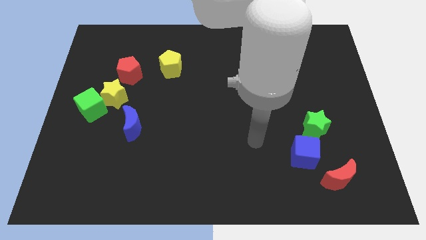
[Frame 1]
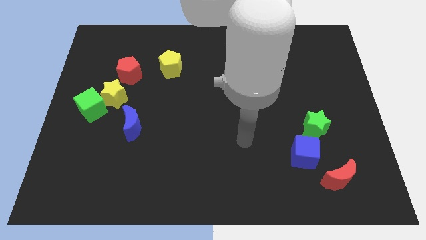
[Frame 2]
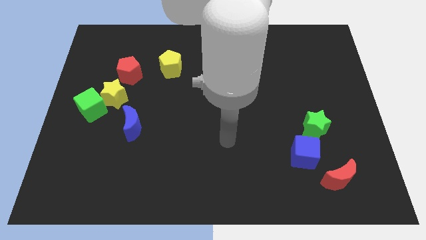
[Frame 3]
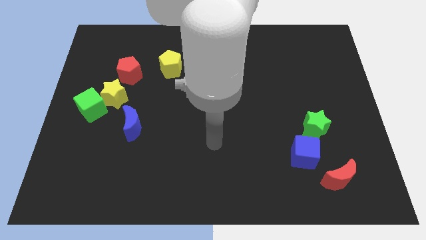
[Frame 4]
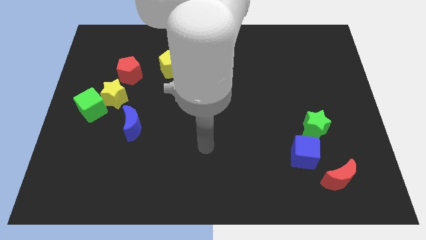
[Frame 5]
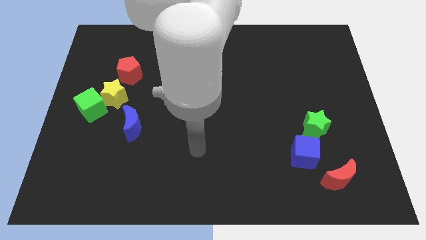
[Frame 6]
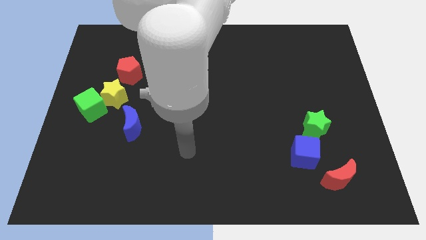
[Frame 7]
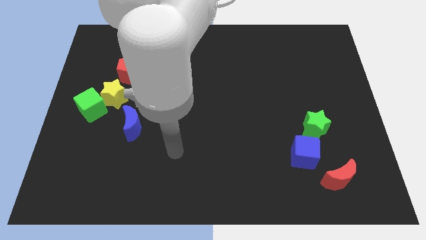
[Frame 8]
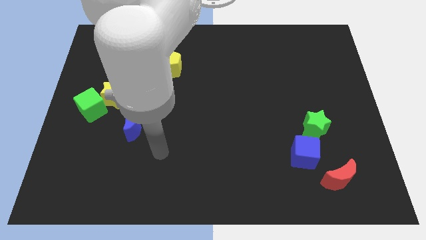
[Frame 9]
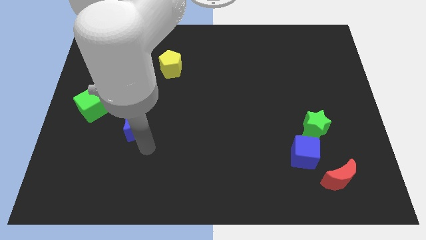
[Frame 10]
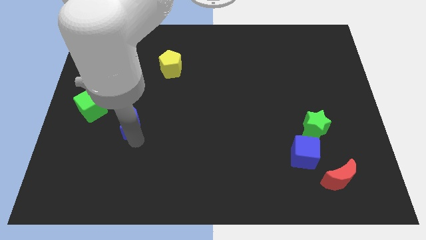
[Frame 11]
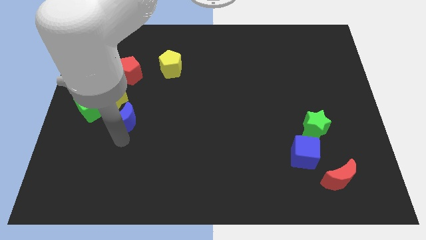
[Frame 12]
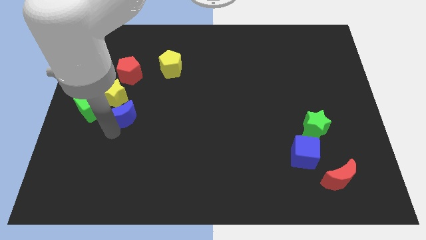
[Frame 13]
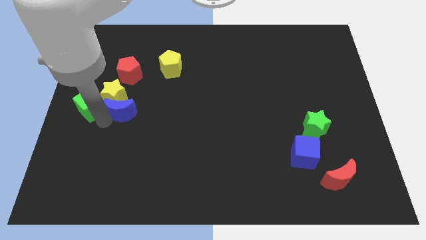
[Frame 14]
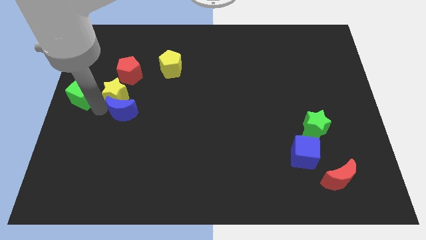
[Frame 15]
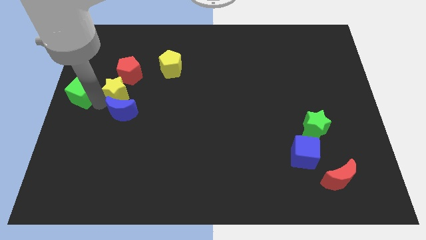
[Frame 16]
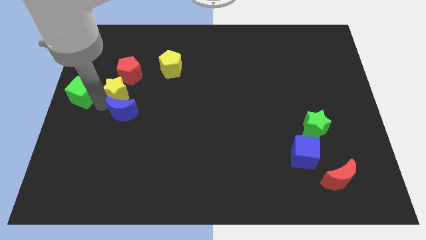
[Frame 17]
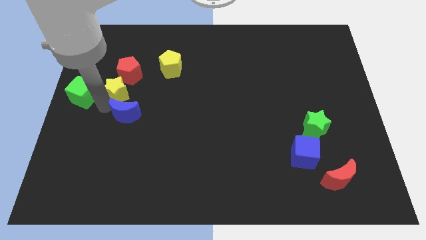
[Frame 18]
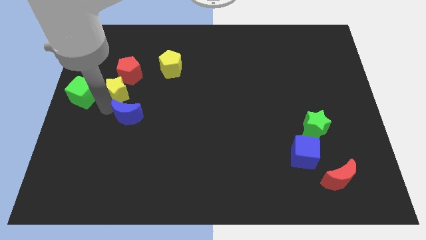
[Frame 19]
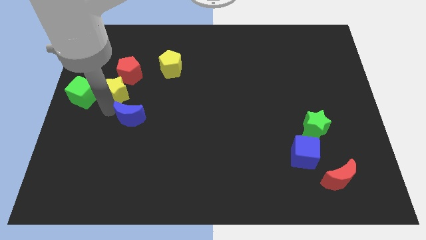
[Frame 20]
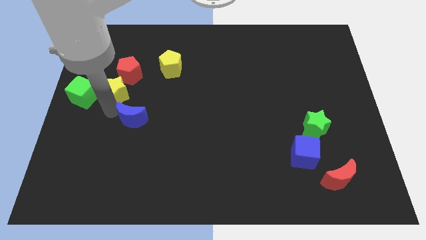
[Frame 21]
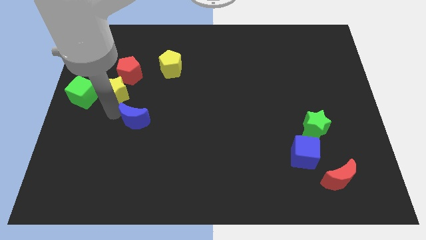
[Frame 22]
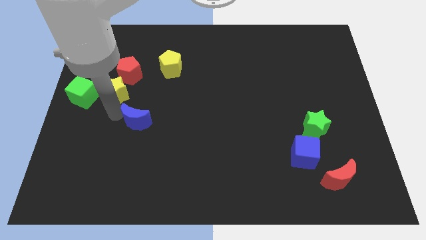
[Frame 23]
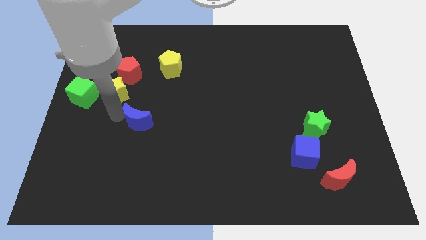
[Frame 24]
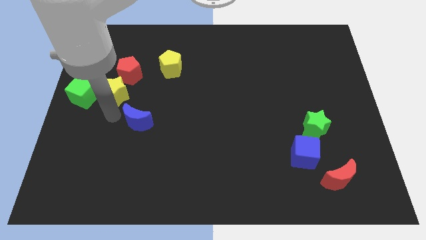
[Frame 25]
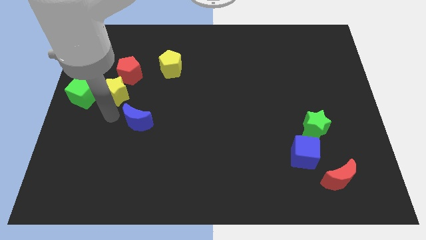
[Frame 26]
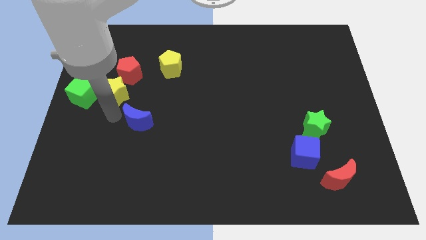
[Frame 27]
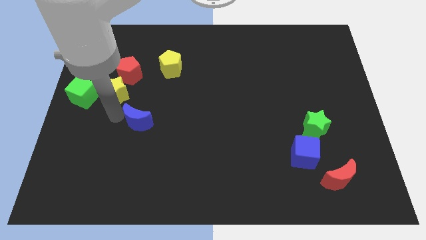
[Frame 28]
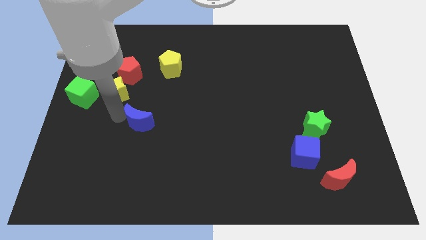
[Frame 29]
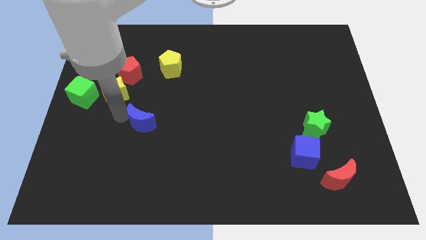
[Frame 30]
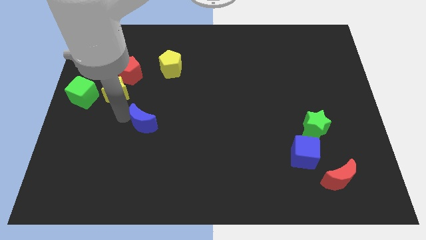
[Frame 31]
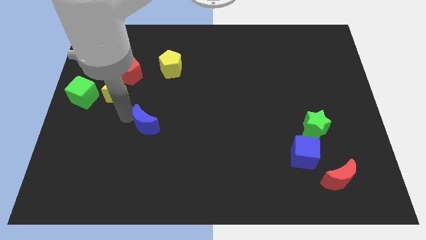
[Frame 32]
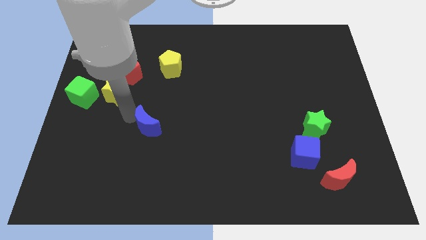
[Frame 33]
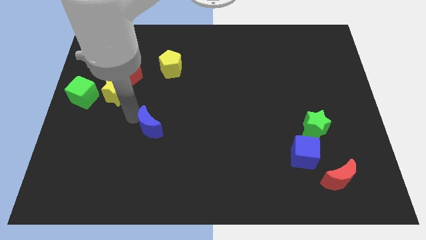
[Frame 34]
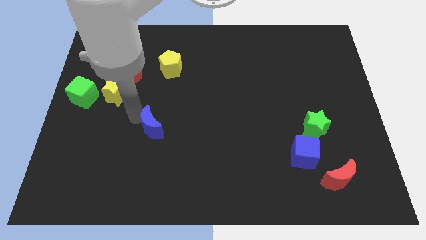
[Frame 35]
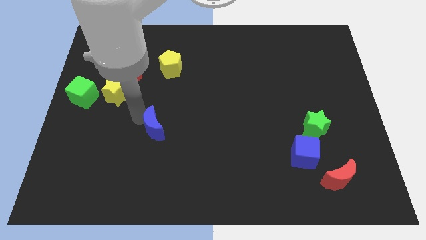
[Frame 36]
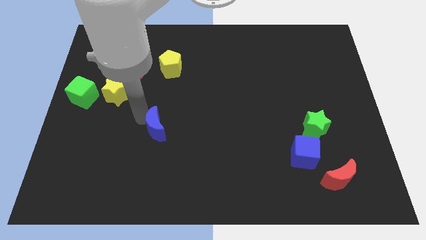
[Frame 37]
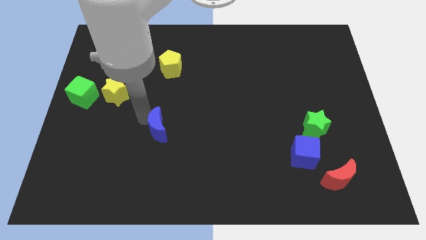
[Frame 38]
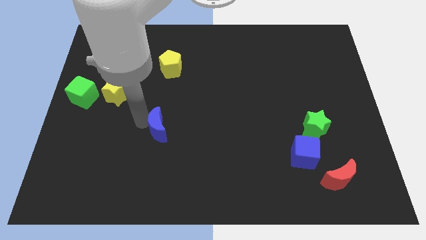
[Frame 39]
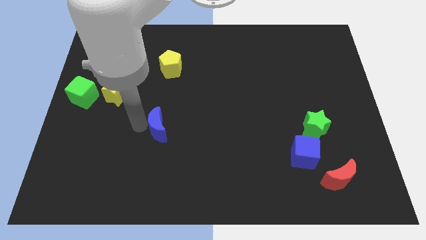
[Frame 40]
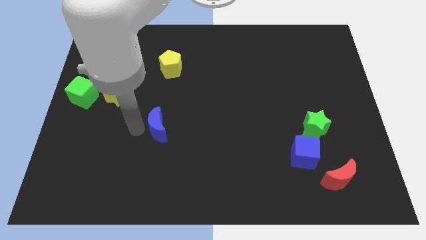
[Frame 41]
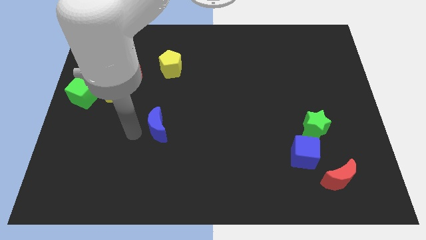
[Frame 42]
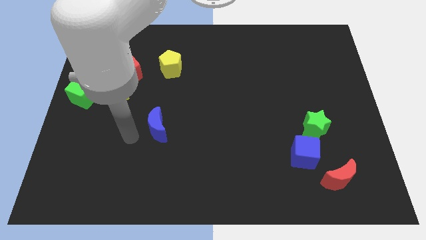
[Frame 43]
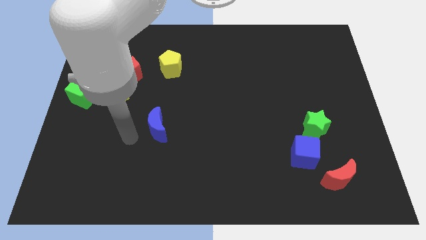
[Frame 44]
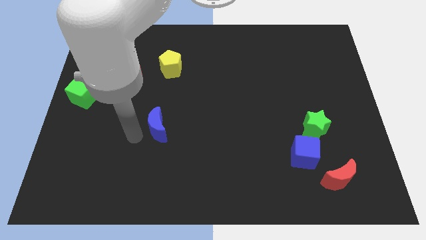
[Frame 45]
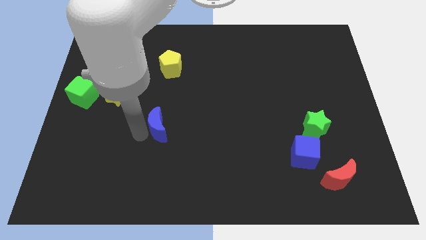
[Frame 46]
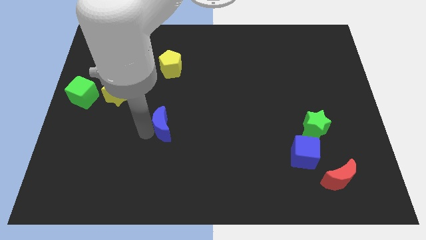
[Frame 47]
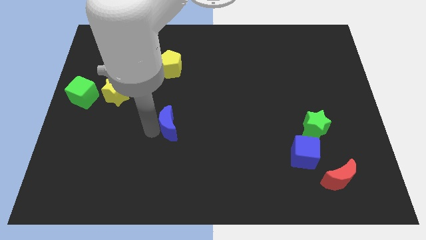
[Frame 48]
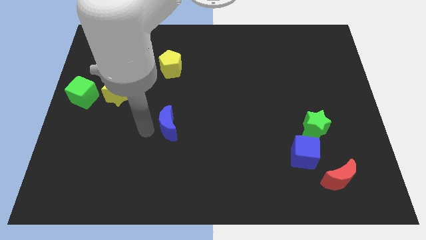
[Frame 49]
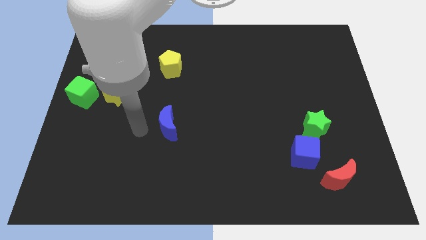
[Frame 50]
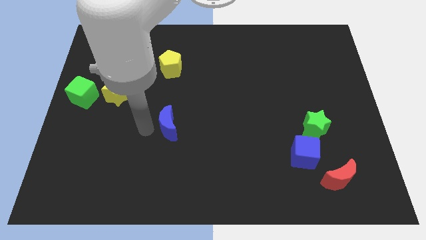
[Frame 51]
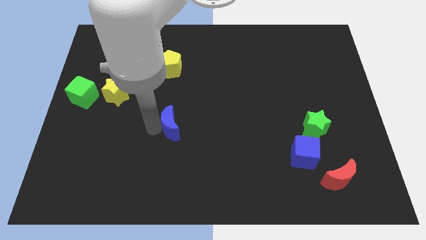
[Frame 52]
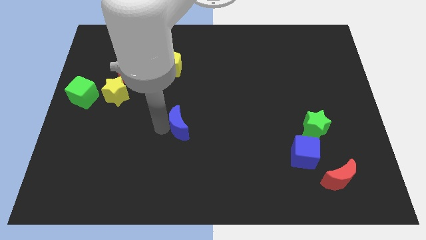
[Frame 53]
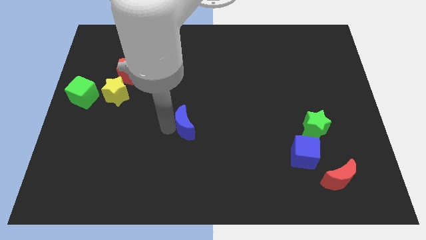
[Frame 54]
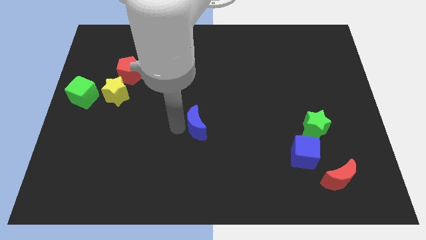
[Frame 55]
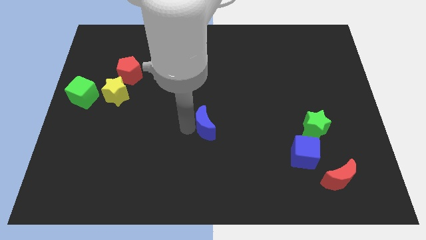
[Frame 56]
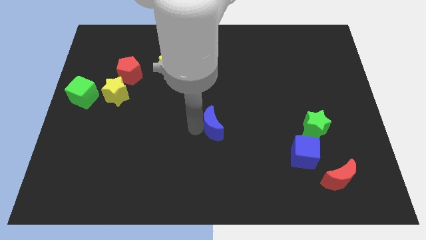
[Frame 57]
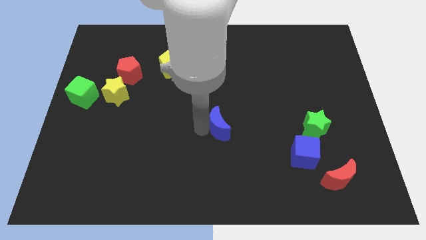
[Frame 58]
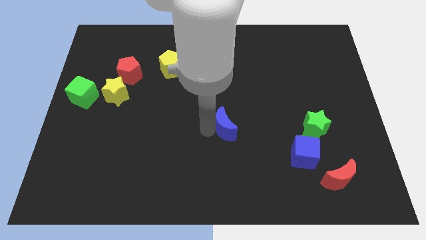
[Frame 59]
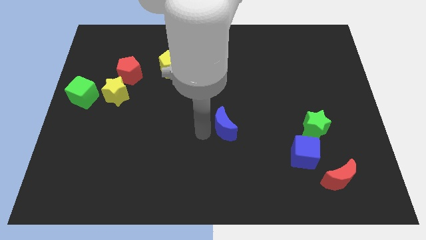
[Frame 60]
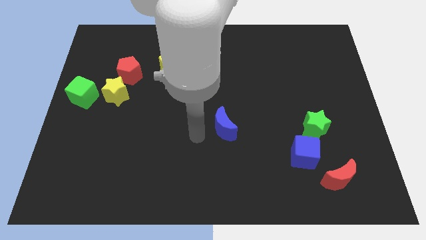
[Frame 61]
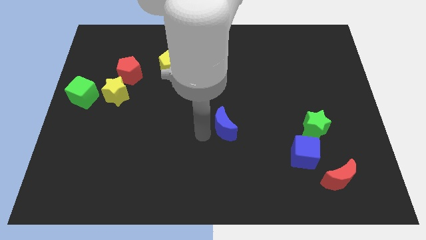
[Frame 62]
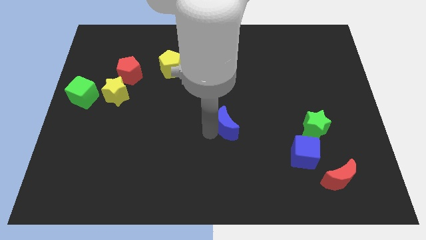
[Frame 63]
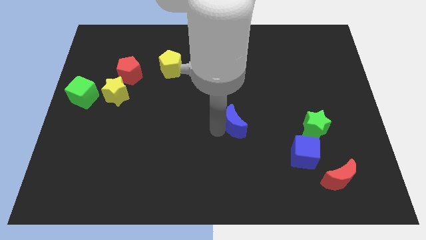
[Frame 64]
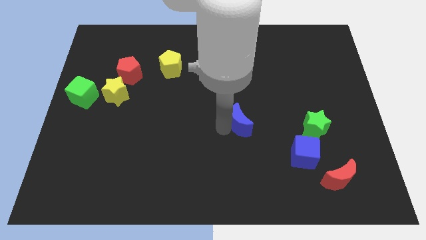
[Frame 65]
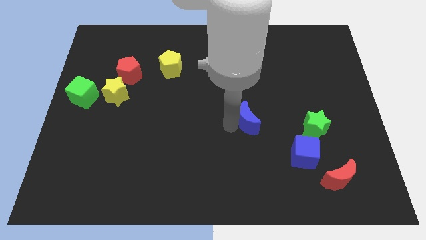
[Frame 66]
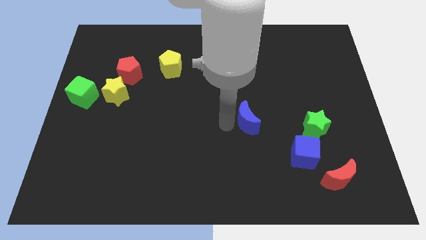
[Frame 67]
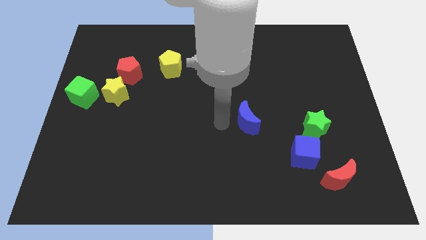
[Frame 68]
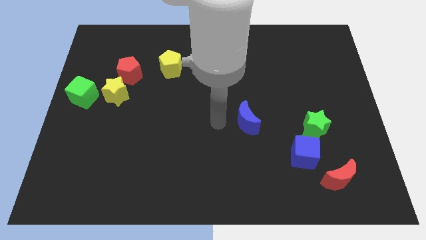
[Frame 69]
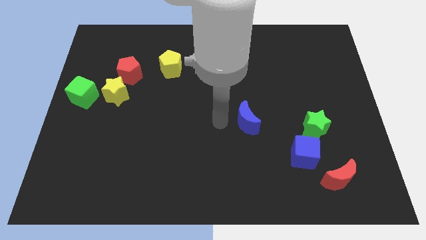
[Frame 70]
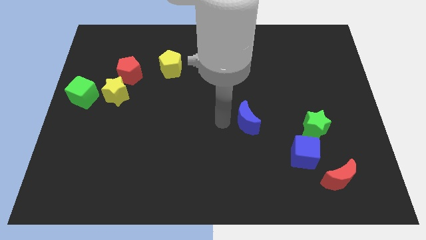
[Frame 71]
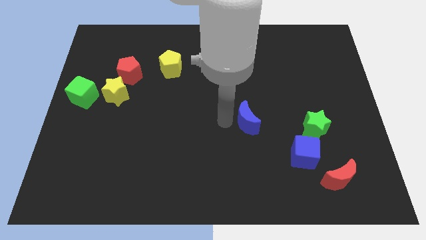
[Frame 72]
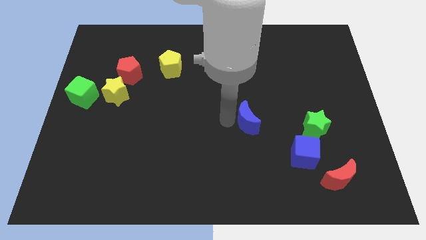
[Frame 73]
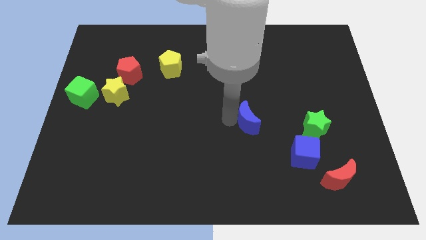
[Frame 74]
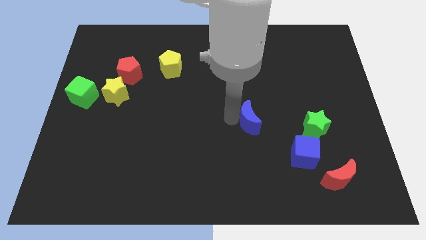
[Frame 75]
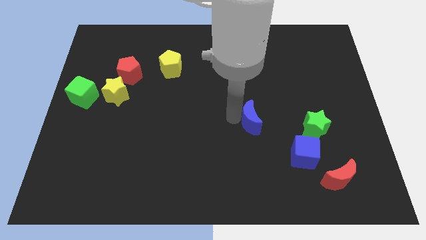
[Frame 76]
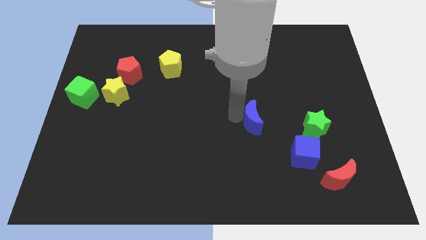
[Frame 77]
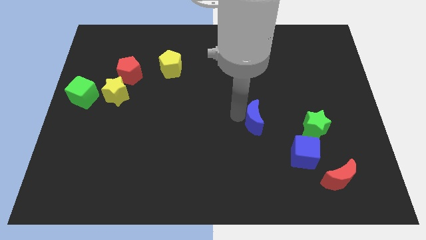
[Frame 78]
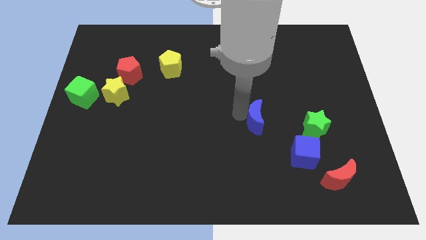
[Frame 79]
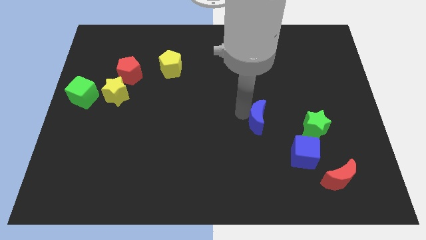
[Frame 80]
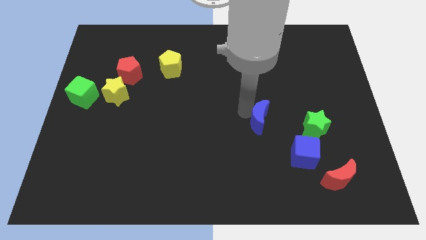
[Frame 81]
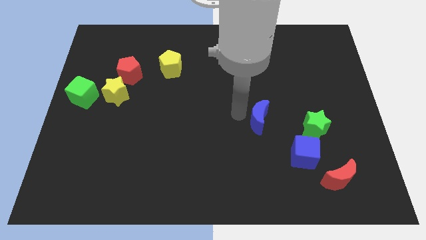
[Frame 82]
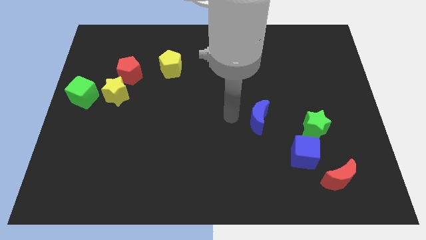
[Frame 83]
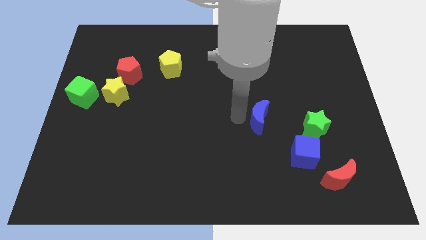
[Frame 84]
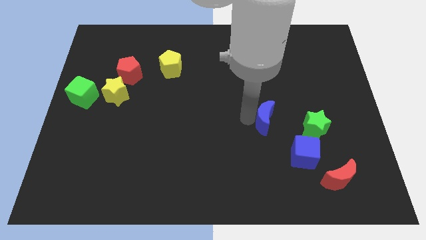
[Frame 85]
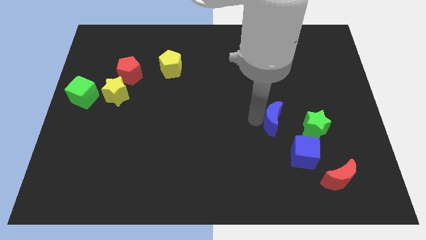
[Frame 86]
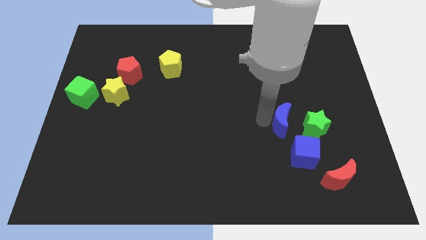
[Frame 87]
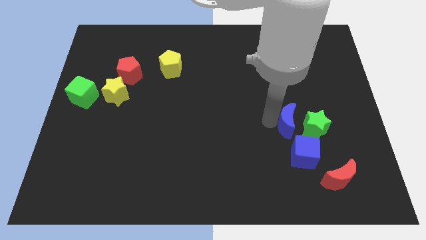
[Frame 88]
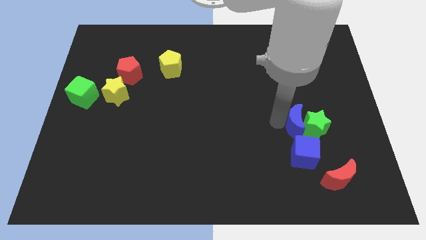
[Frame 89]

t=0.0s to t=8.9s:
push the blue moon towards the green star
